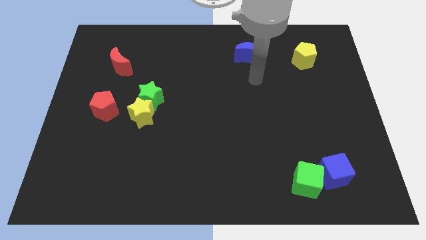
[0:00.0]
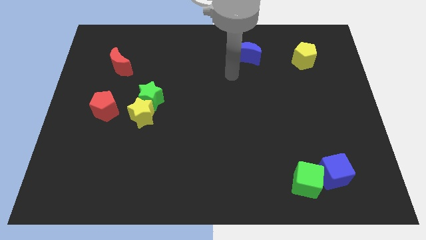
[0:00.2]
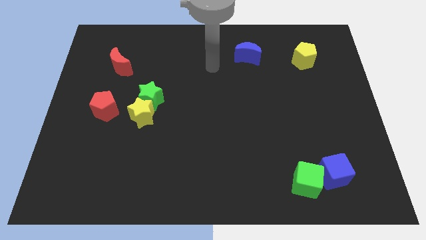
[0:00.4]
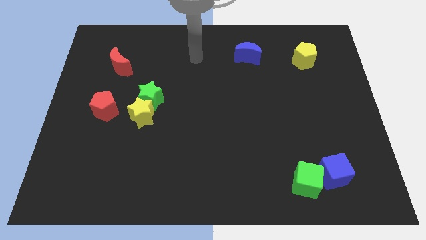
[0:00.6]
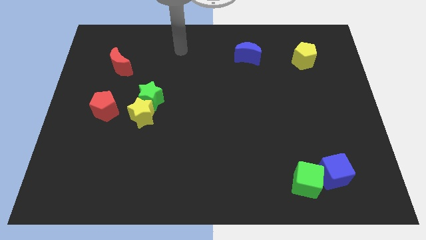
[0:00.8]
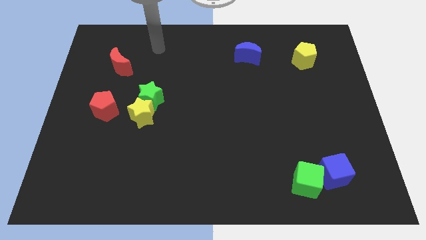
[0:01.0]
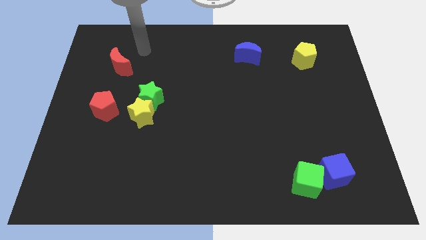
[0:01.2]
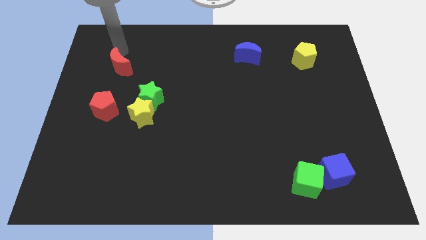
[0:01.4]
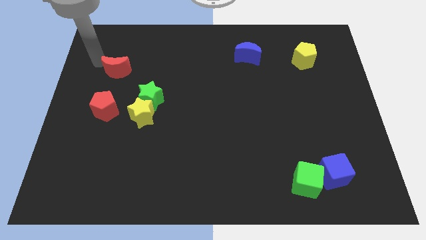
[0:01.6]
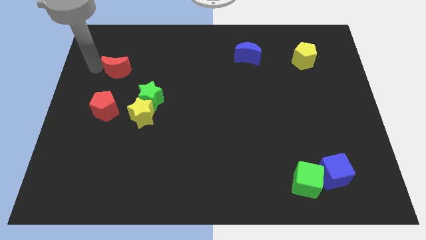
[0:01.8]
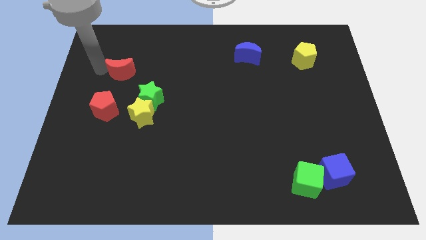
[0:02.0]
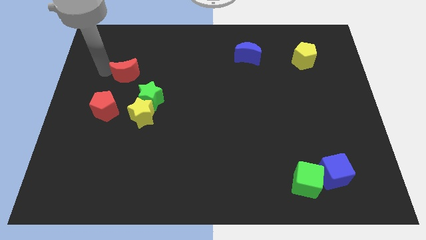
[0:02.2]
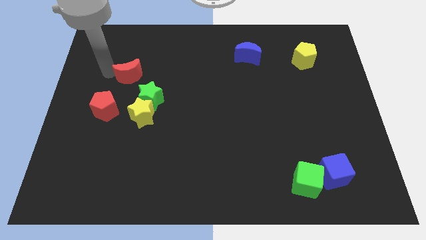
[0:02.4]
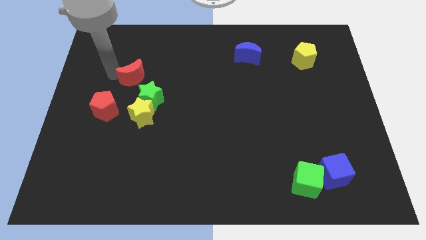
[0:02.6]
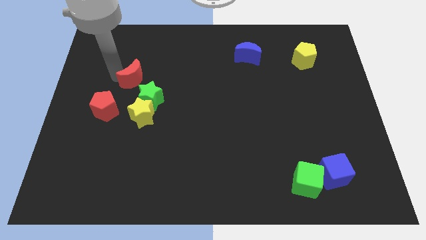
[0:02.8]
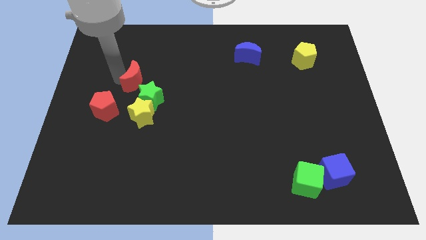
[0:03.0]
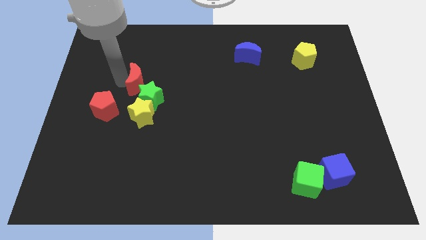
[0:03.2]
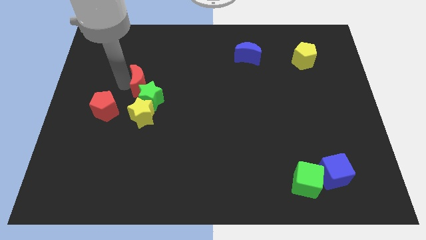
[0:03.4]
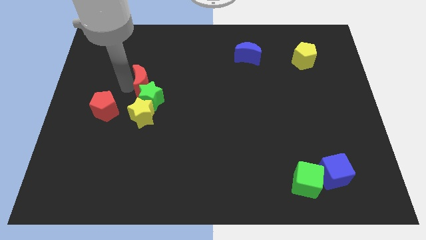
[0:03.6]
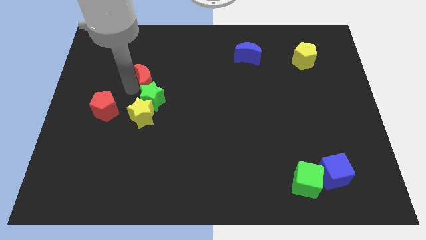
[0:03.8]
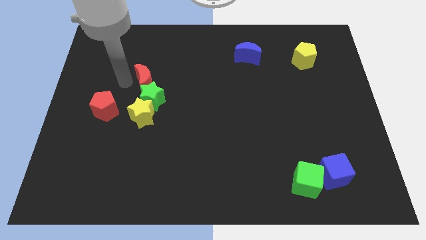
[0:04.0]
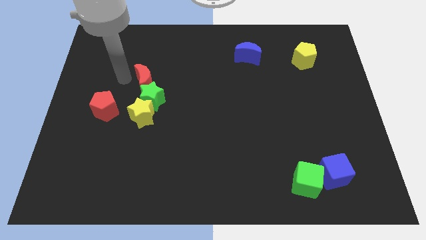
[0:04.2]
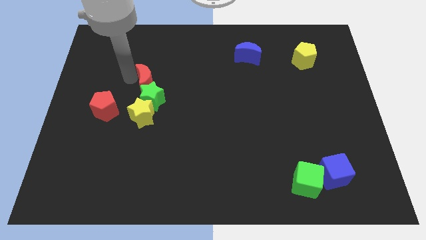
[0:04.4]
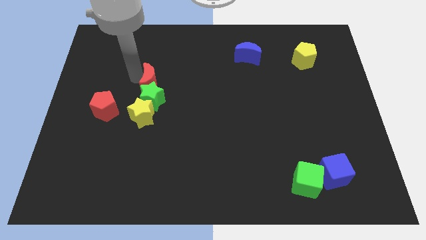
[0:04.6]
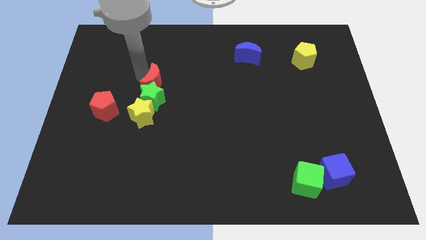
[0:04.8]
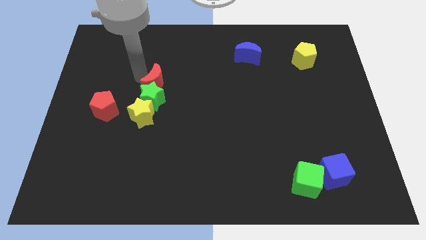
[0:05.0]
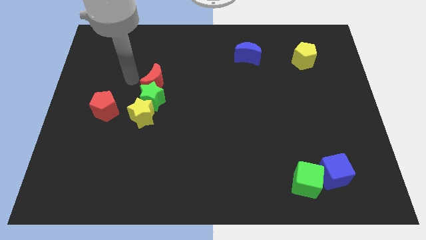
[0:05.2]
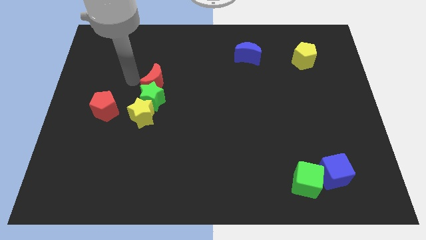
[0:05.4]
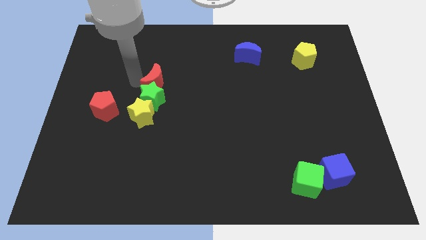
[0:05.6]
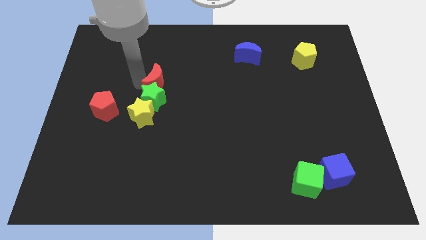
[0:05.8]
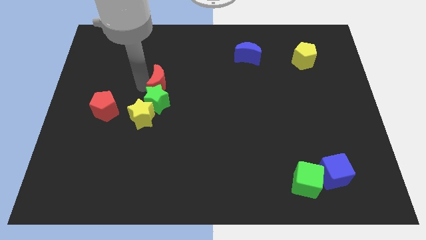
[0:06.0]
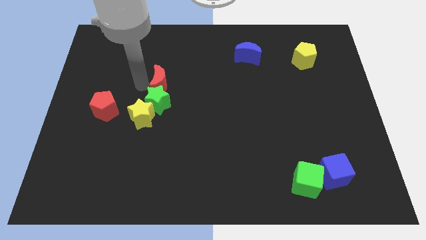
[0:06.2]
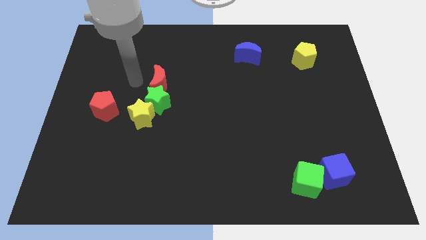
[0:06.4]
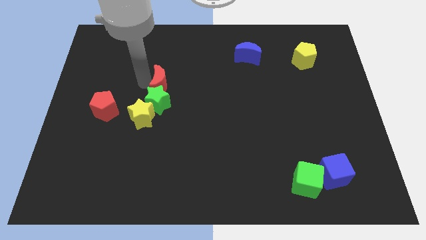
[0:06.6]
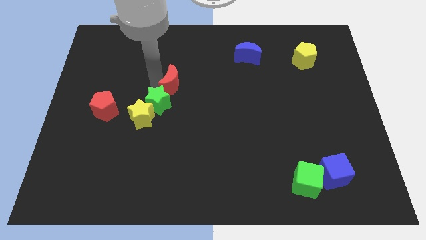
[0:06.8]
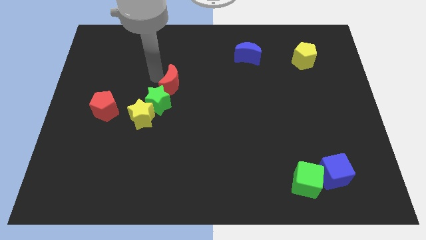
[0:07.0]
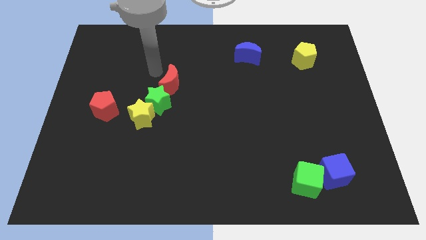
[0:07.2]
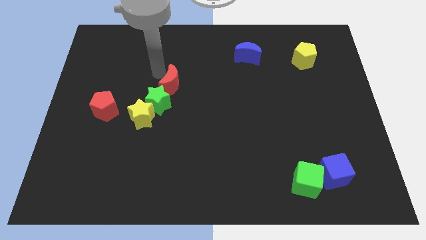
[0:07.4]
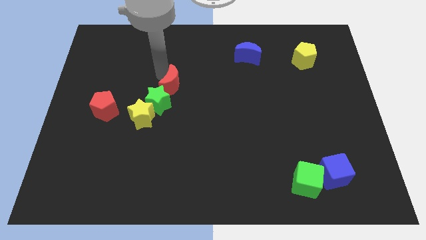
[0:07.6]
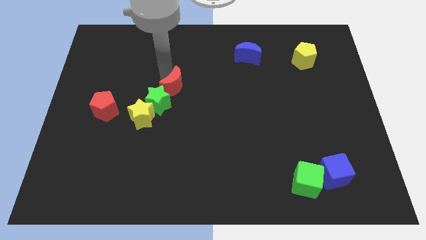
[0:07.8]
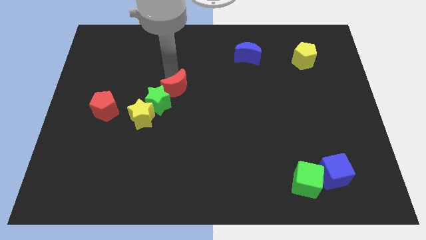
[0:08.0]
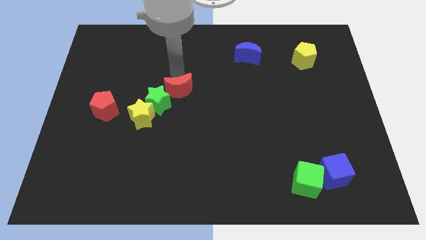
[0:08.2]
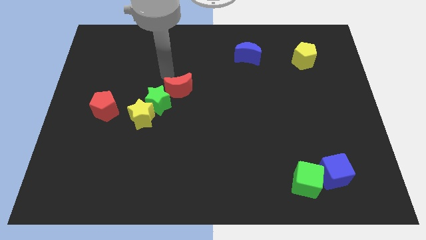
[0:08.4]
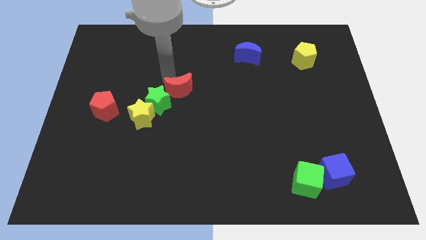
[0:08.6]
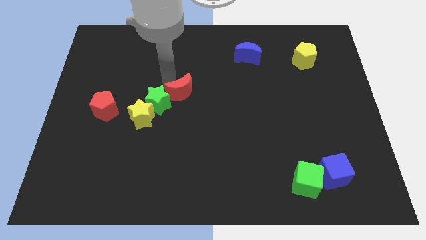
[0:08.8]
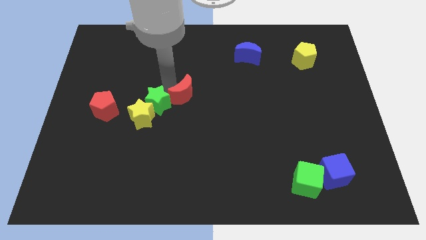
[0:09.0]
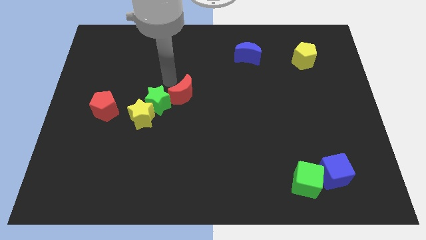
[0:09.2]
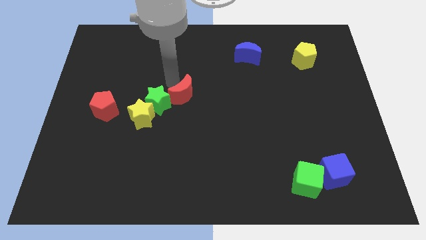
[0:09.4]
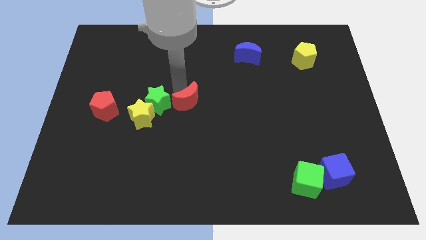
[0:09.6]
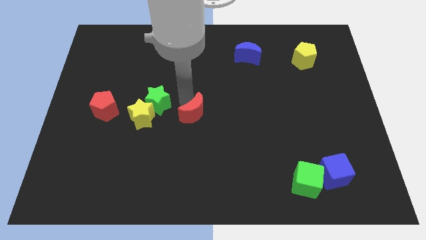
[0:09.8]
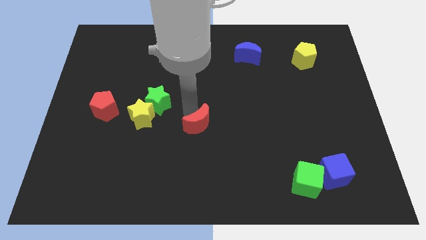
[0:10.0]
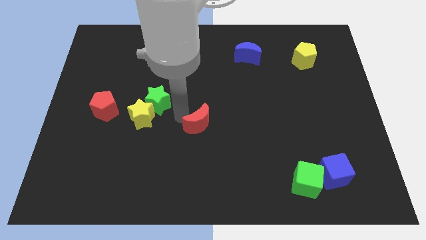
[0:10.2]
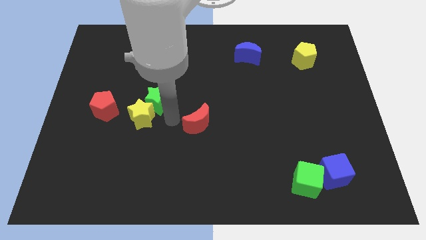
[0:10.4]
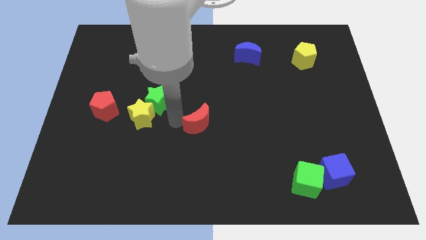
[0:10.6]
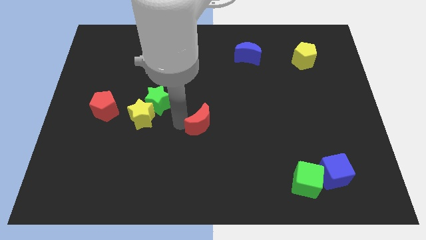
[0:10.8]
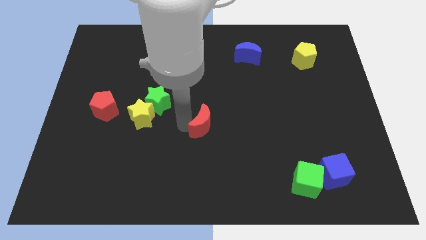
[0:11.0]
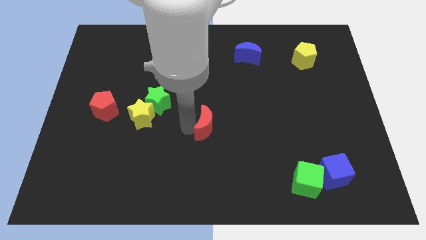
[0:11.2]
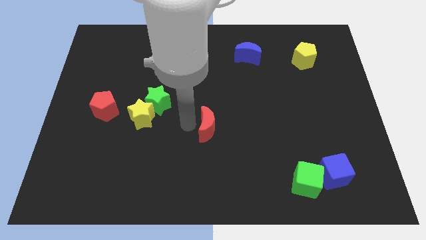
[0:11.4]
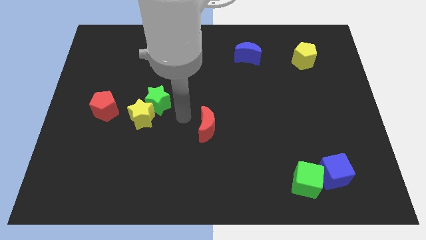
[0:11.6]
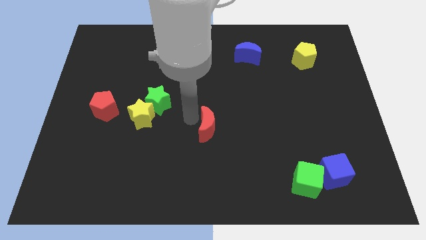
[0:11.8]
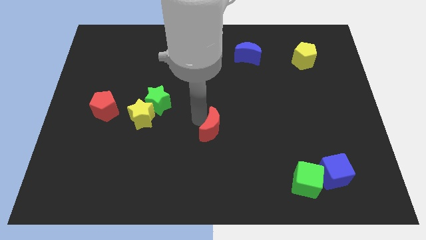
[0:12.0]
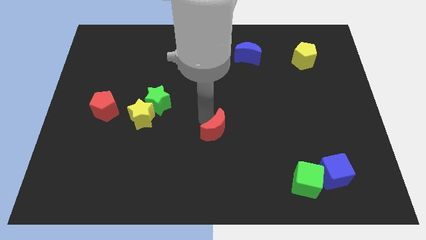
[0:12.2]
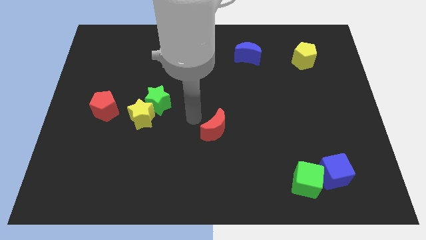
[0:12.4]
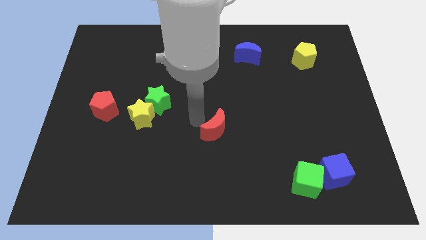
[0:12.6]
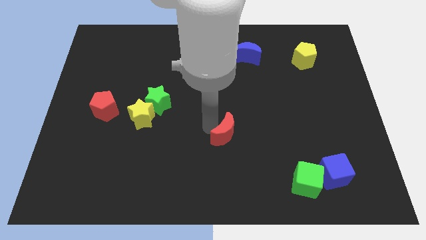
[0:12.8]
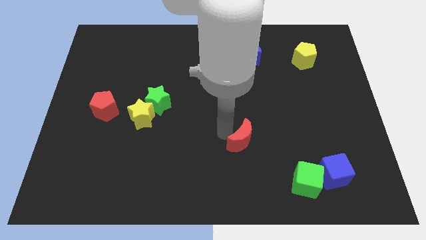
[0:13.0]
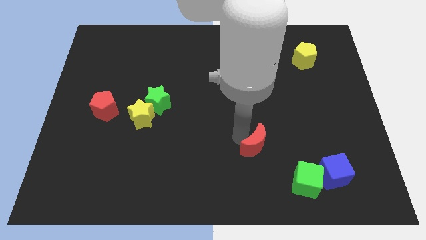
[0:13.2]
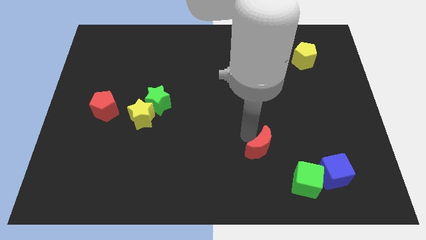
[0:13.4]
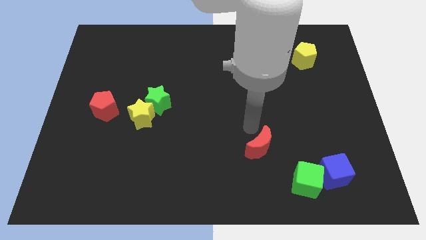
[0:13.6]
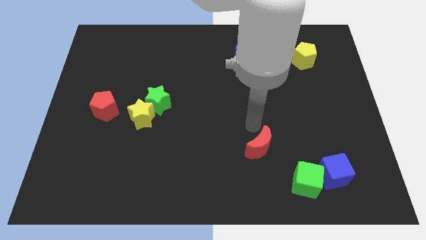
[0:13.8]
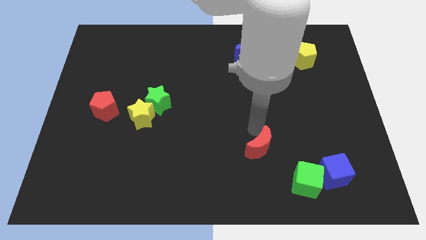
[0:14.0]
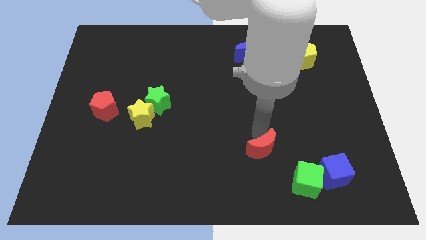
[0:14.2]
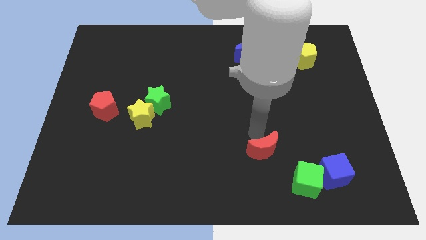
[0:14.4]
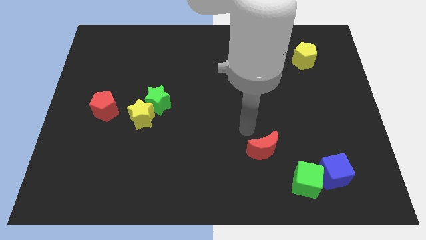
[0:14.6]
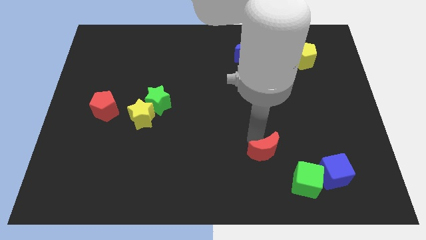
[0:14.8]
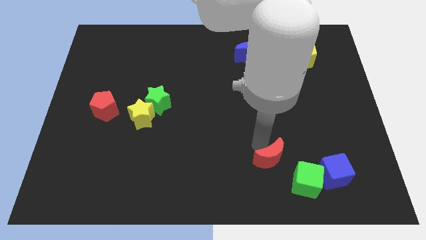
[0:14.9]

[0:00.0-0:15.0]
slide the red moon to the left of the blue cube

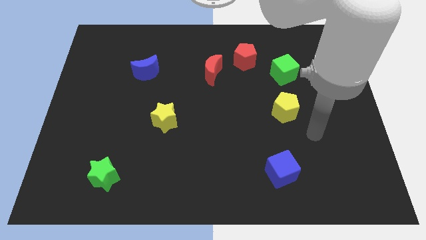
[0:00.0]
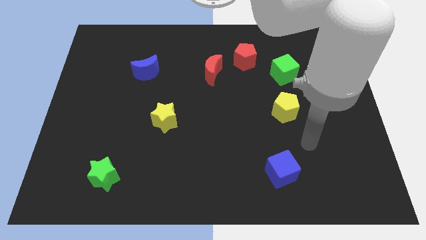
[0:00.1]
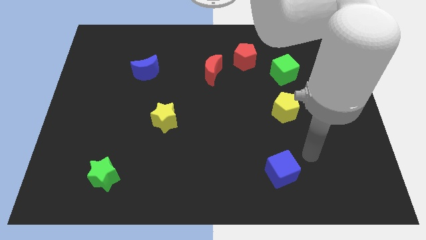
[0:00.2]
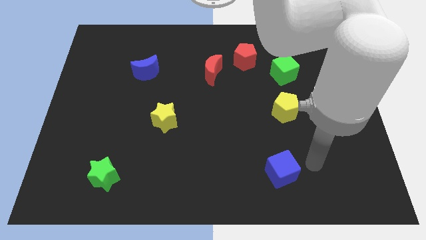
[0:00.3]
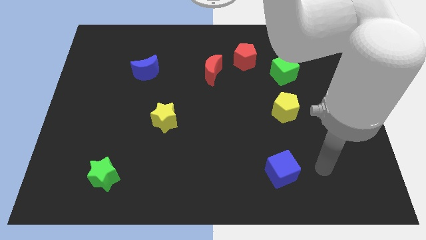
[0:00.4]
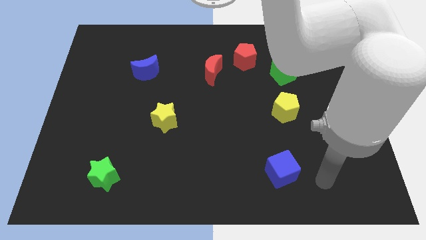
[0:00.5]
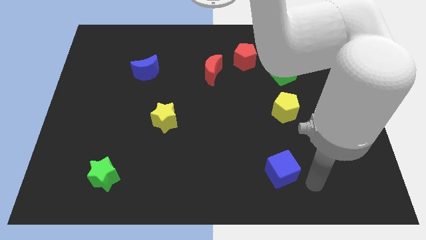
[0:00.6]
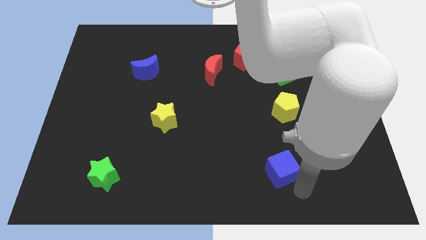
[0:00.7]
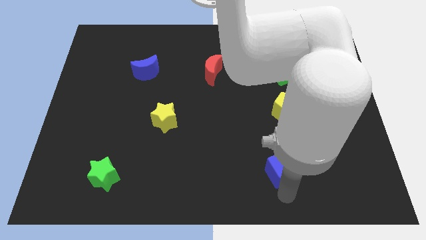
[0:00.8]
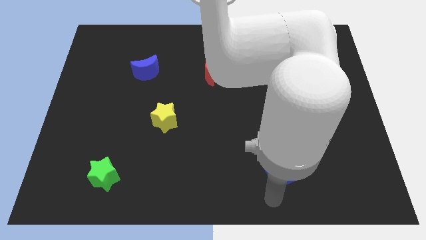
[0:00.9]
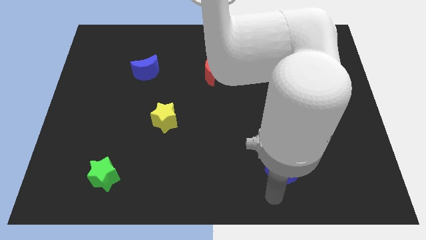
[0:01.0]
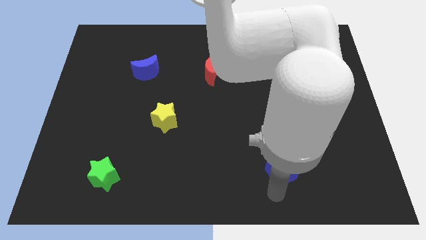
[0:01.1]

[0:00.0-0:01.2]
move the blue cube to the bottom of the yellow pentagon
